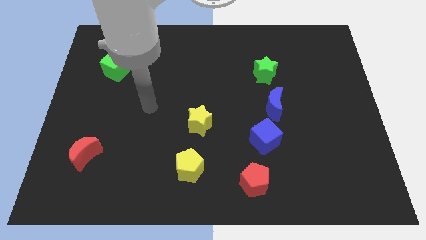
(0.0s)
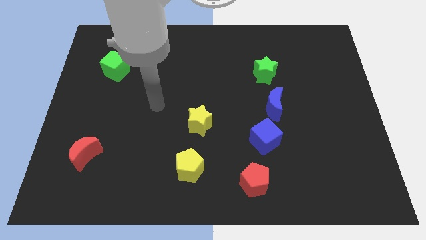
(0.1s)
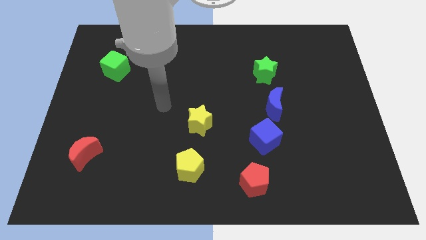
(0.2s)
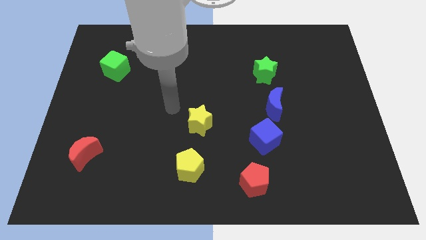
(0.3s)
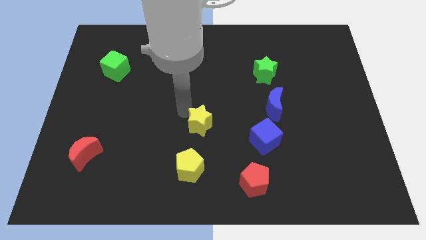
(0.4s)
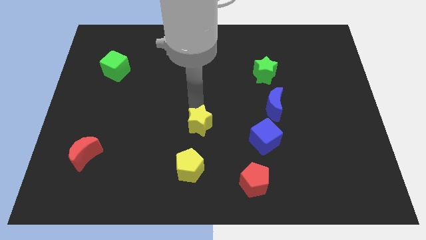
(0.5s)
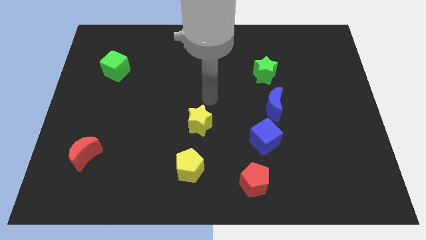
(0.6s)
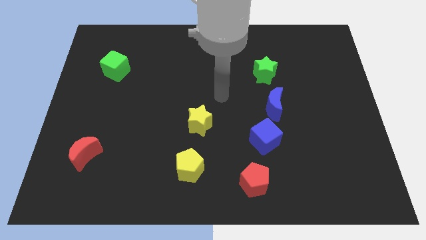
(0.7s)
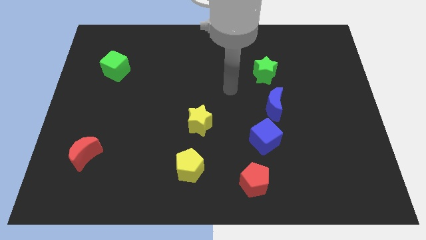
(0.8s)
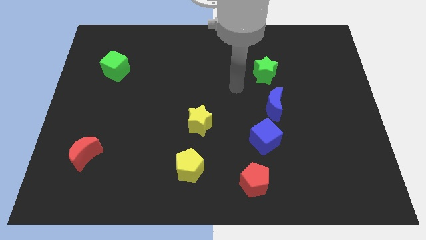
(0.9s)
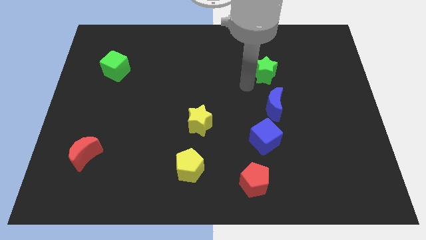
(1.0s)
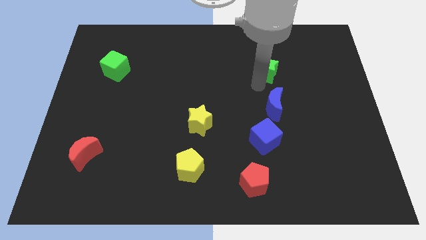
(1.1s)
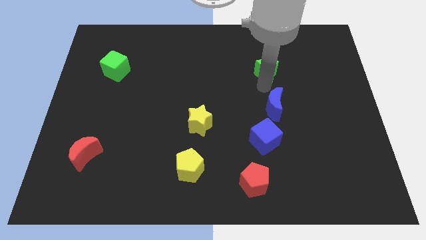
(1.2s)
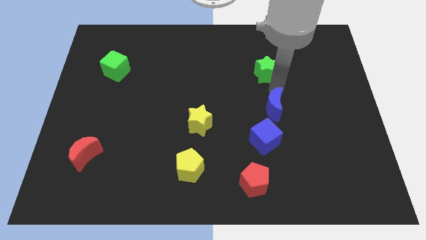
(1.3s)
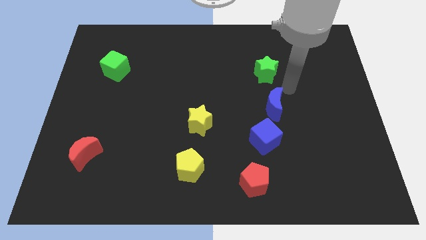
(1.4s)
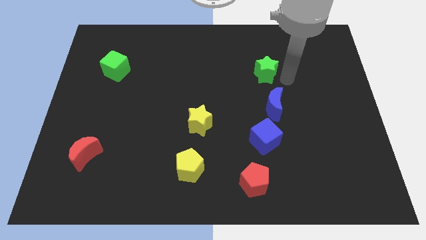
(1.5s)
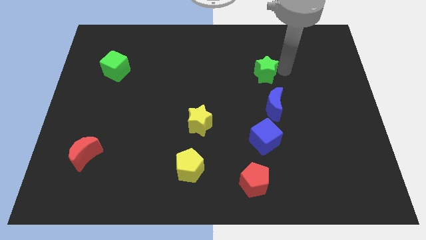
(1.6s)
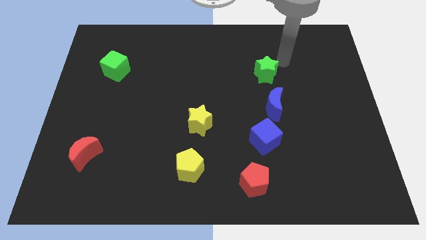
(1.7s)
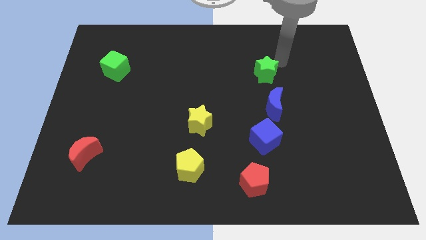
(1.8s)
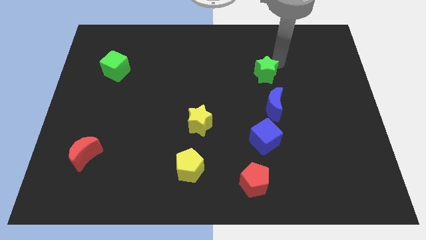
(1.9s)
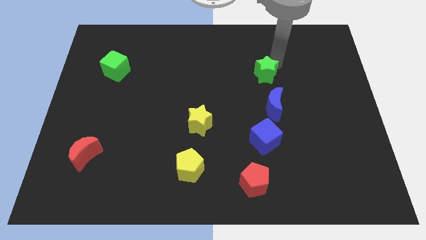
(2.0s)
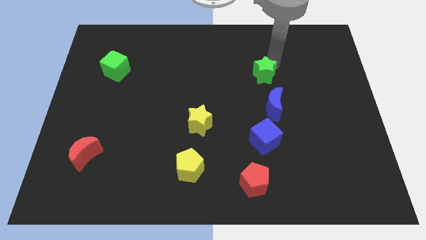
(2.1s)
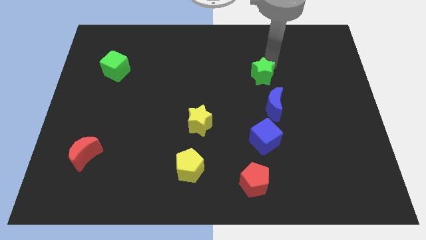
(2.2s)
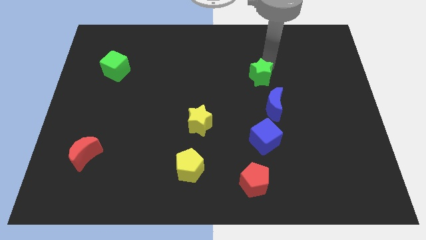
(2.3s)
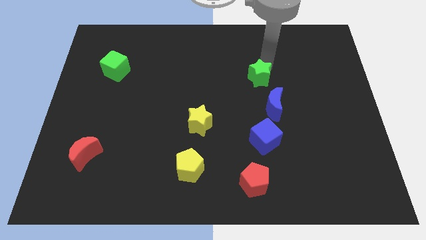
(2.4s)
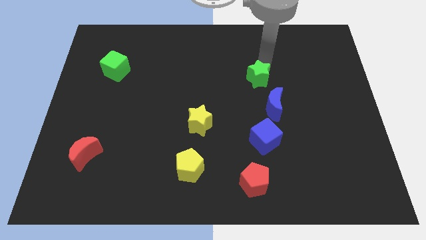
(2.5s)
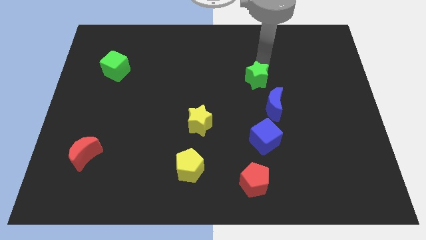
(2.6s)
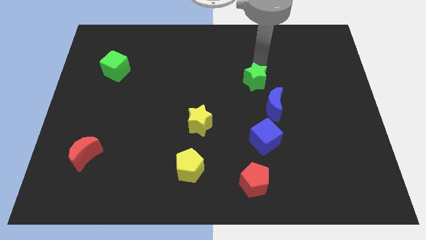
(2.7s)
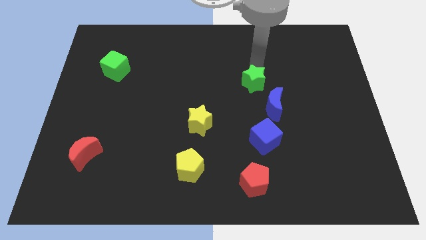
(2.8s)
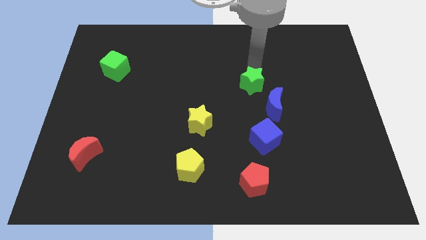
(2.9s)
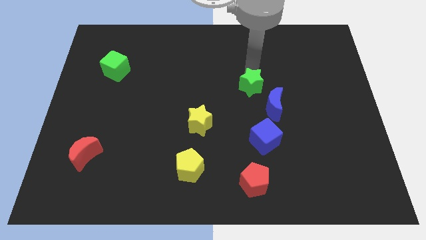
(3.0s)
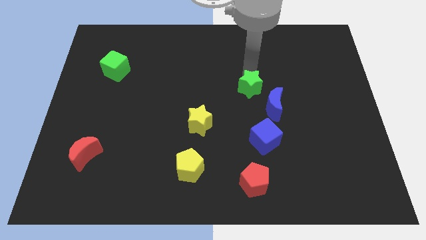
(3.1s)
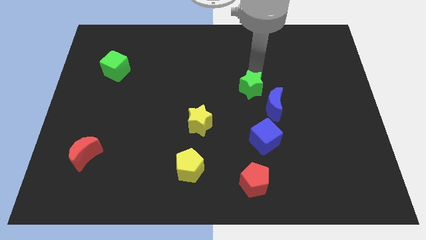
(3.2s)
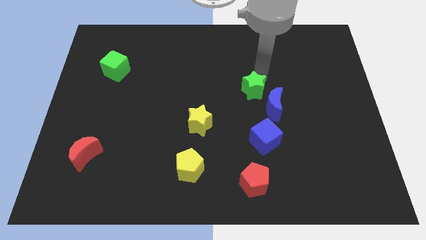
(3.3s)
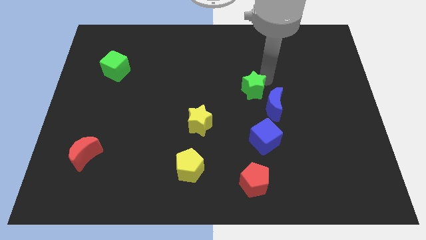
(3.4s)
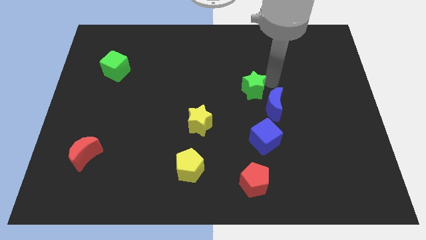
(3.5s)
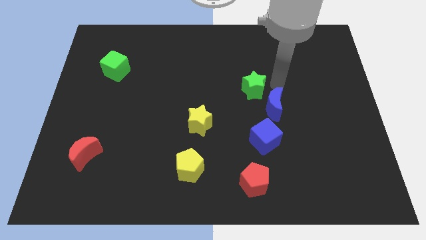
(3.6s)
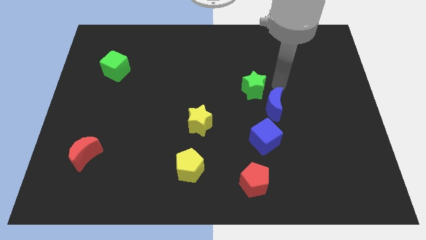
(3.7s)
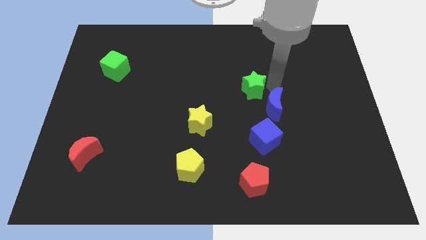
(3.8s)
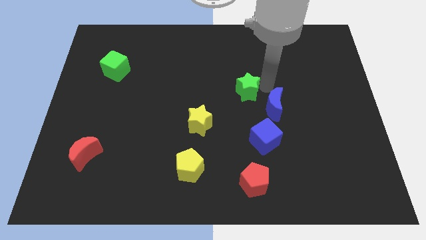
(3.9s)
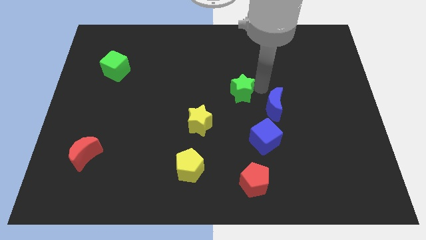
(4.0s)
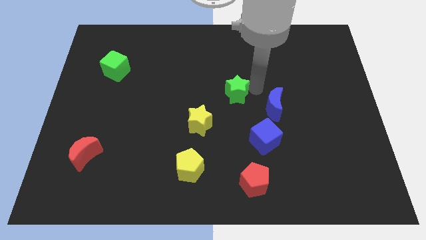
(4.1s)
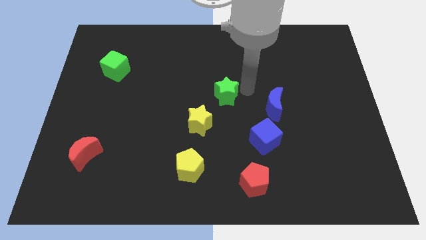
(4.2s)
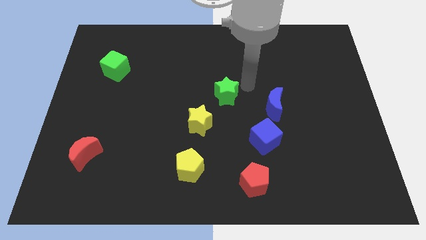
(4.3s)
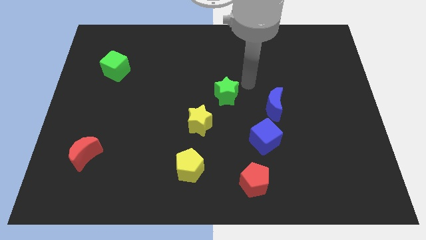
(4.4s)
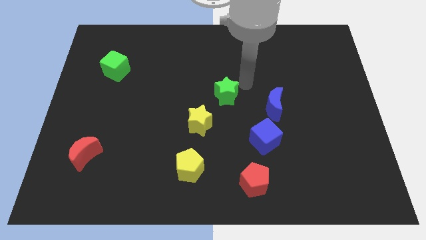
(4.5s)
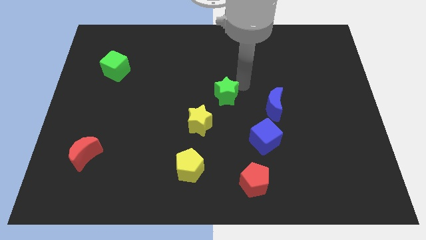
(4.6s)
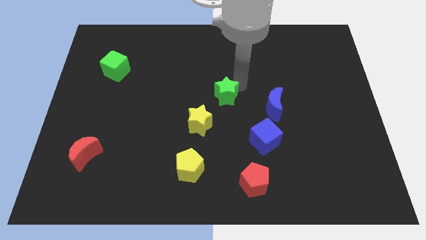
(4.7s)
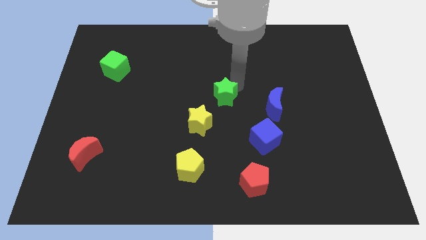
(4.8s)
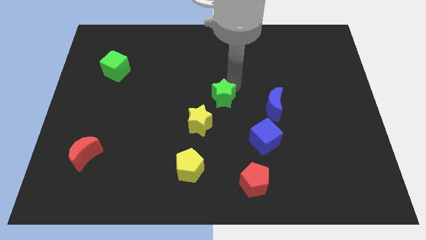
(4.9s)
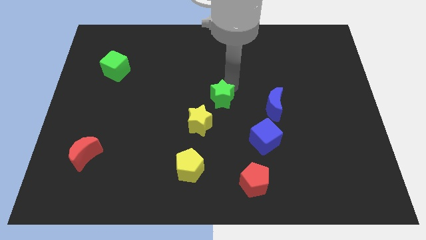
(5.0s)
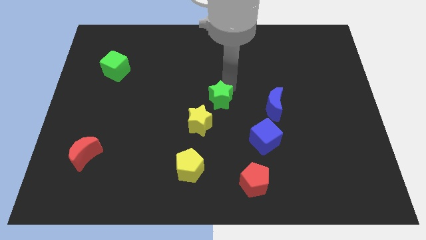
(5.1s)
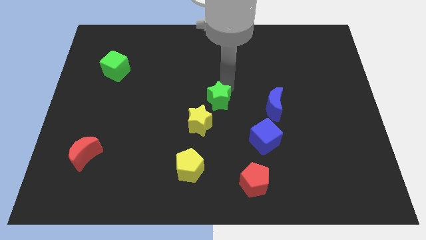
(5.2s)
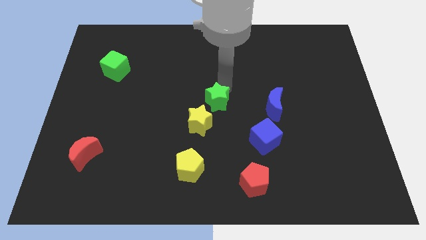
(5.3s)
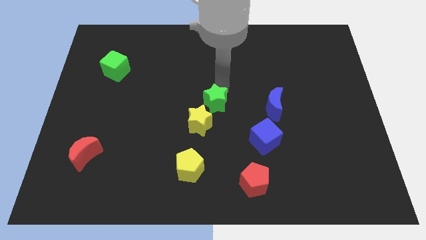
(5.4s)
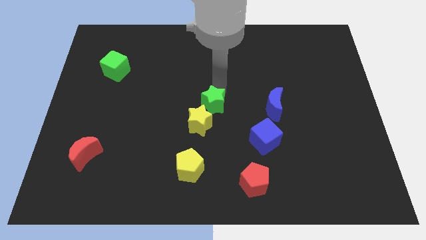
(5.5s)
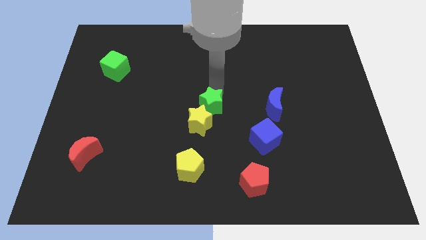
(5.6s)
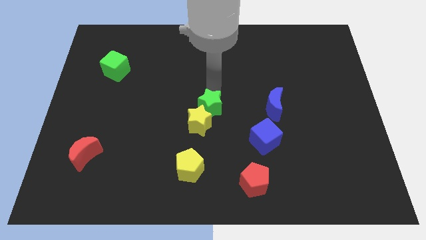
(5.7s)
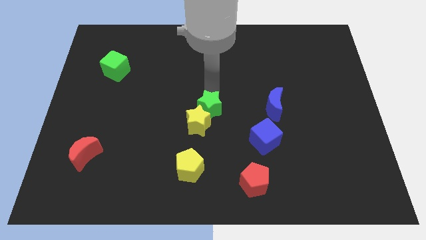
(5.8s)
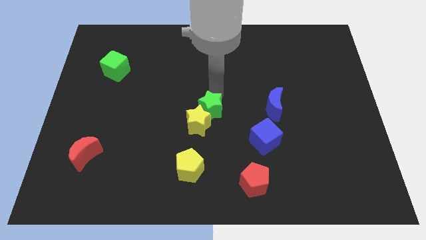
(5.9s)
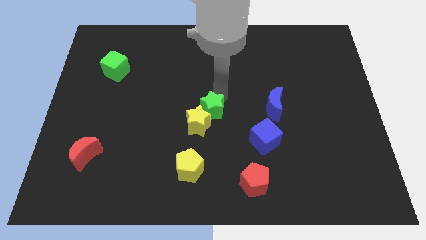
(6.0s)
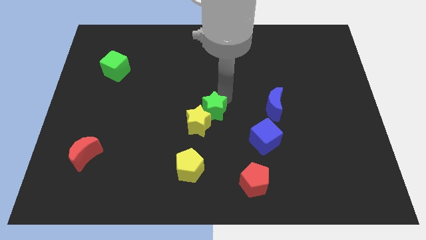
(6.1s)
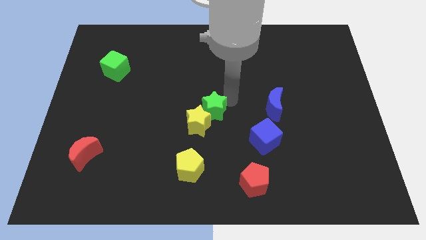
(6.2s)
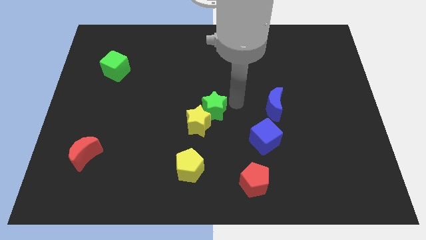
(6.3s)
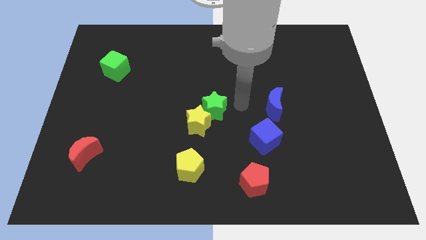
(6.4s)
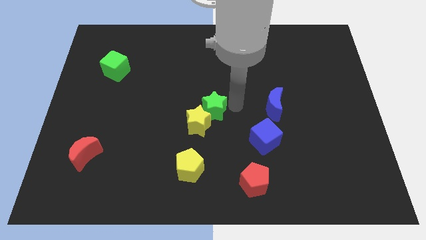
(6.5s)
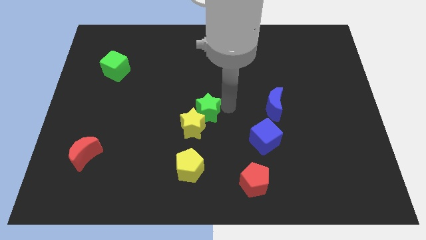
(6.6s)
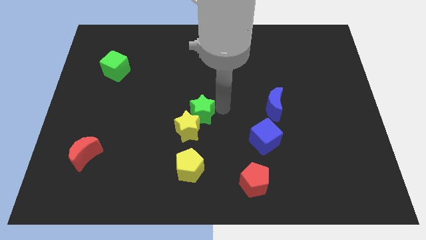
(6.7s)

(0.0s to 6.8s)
push the green star above the yellow pentagon
